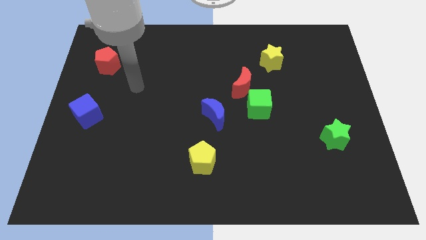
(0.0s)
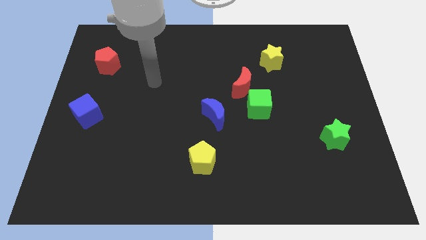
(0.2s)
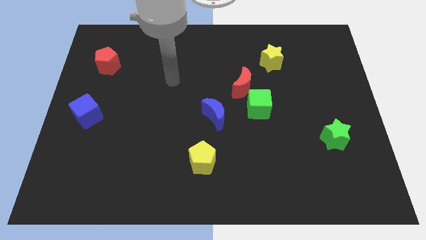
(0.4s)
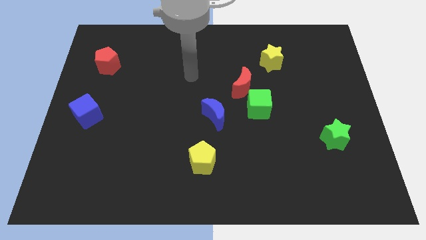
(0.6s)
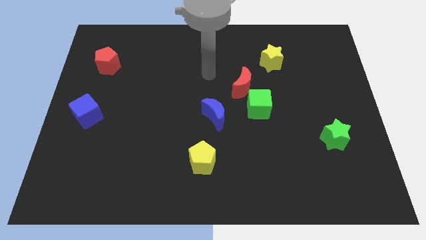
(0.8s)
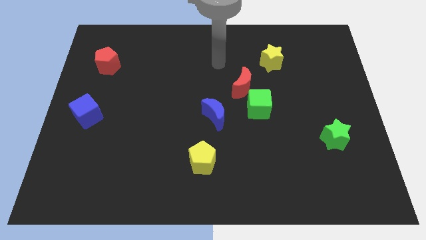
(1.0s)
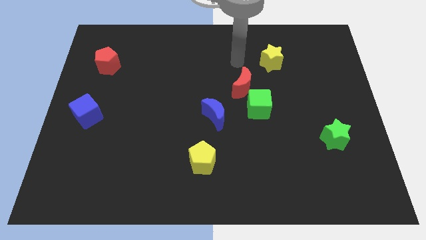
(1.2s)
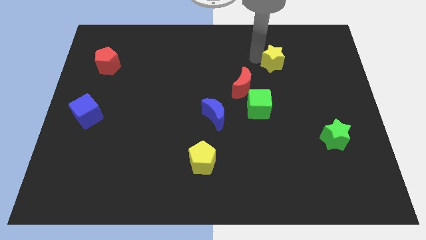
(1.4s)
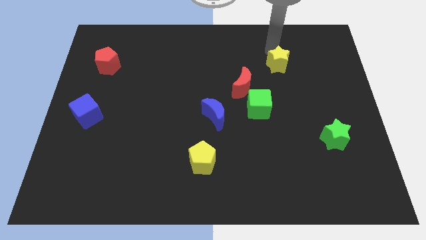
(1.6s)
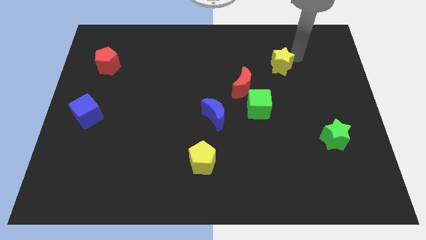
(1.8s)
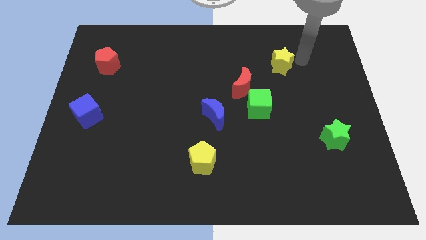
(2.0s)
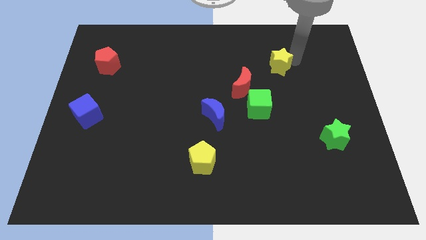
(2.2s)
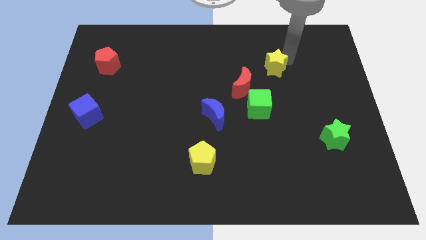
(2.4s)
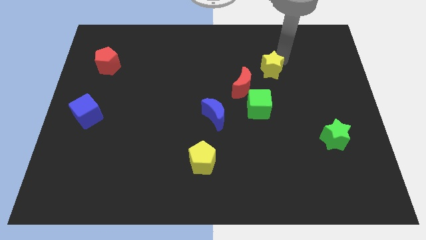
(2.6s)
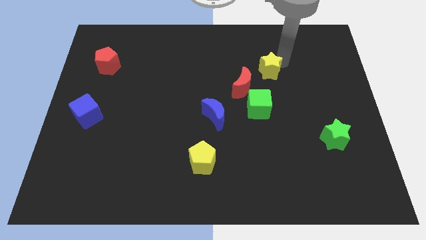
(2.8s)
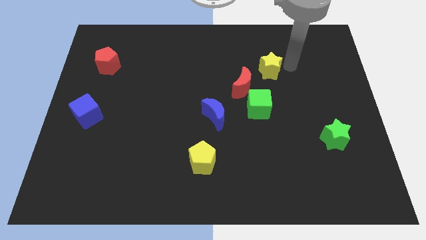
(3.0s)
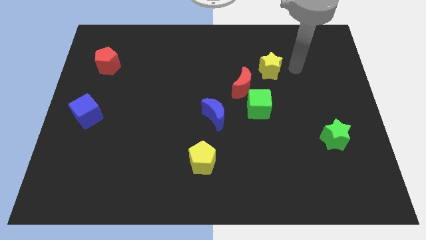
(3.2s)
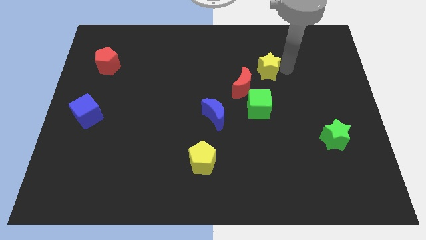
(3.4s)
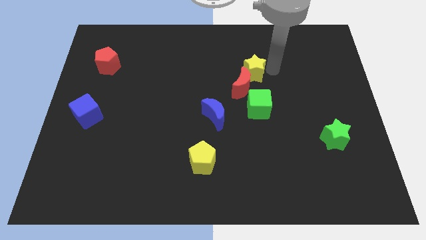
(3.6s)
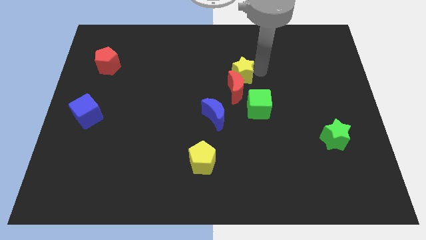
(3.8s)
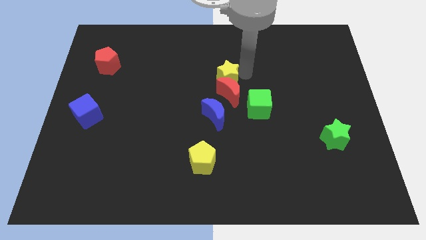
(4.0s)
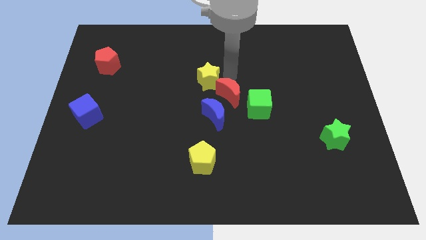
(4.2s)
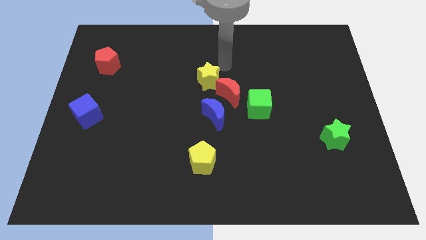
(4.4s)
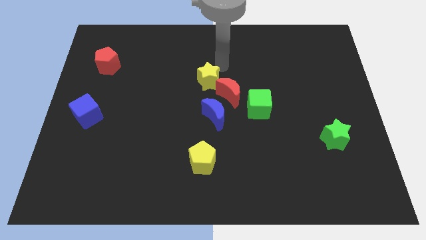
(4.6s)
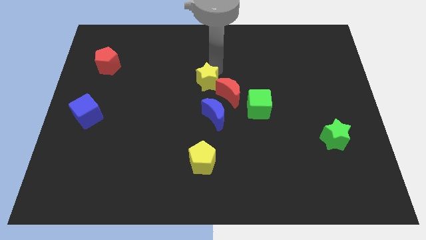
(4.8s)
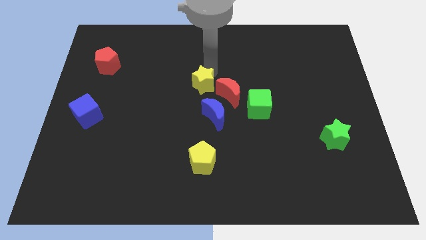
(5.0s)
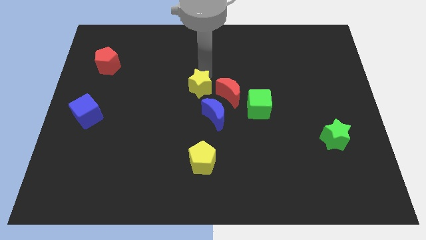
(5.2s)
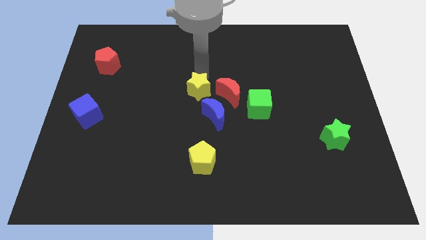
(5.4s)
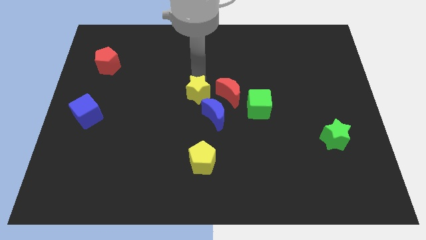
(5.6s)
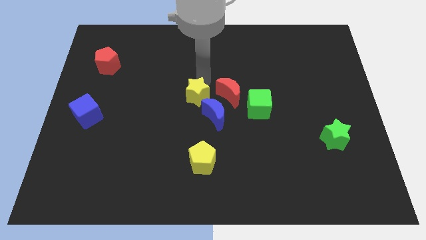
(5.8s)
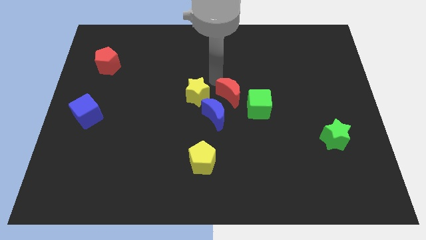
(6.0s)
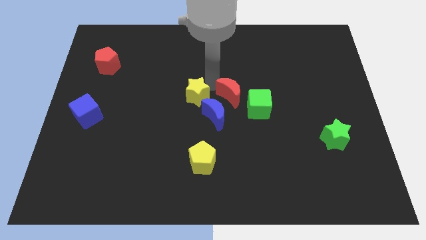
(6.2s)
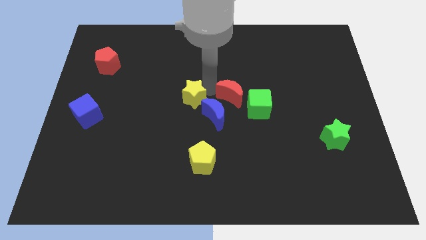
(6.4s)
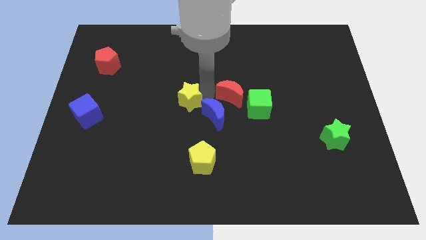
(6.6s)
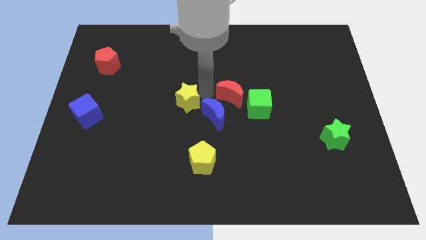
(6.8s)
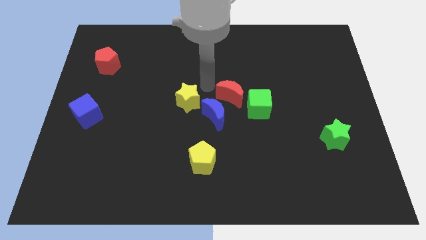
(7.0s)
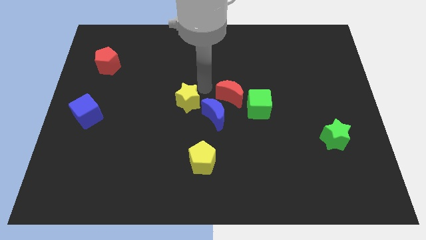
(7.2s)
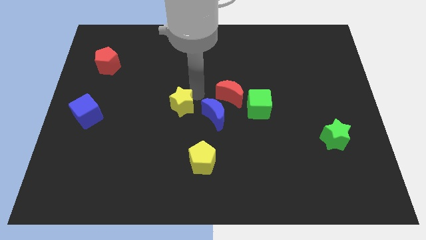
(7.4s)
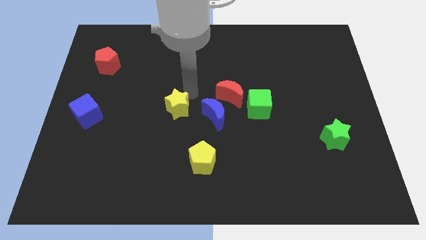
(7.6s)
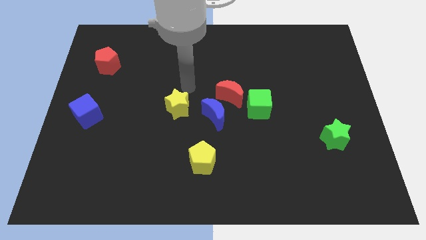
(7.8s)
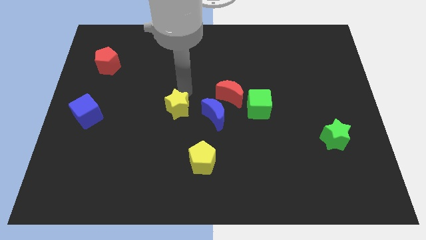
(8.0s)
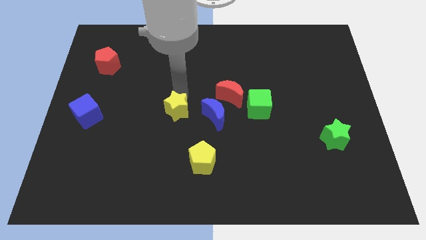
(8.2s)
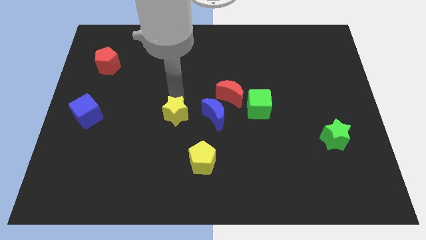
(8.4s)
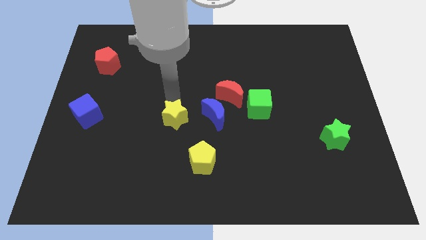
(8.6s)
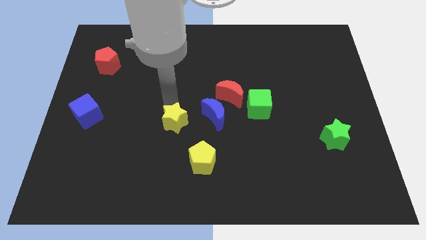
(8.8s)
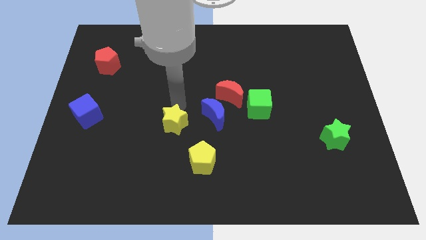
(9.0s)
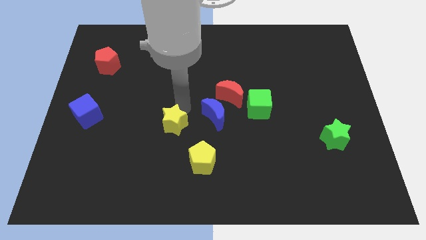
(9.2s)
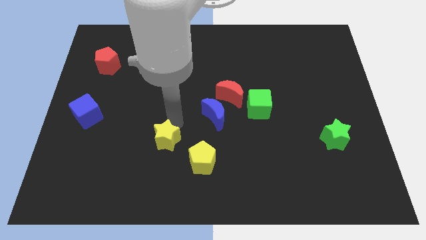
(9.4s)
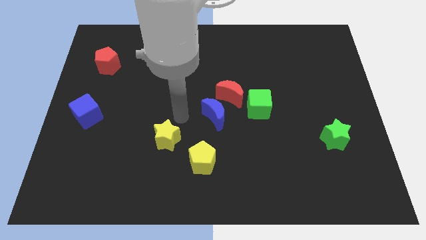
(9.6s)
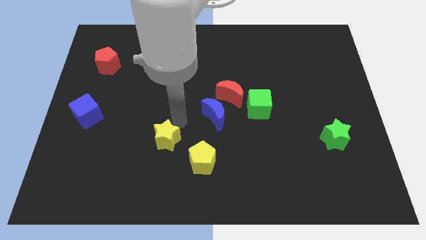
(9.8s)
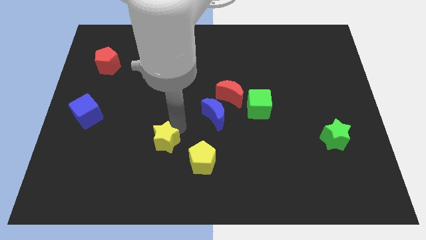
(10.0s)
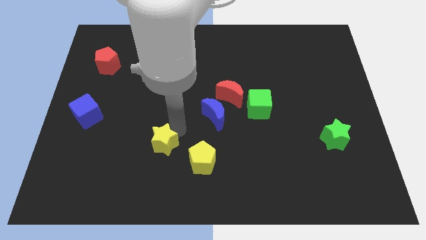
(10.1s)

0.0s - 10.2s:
push the yellow star to the left side of the yellow pentagon

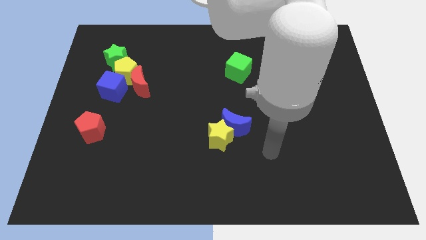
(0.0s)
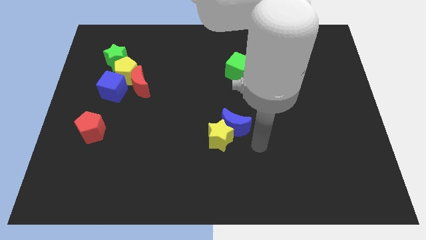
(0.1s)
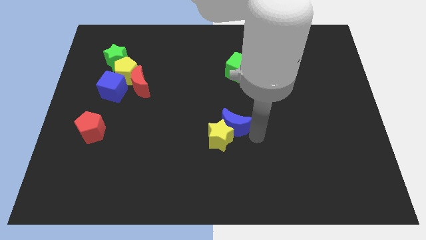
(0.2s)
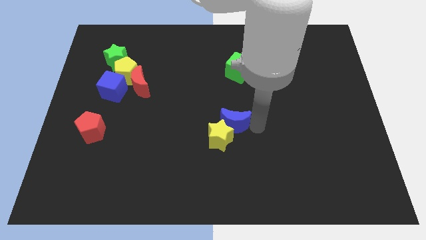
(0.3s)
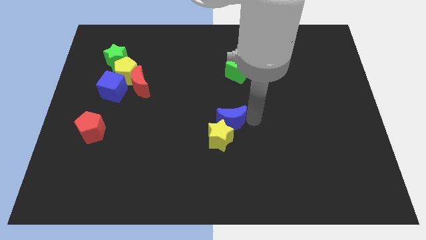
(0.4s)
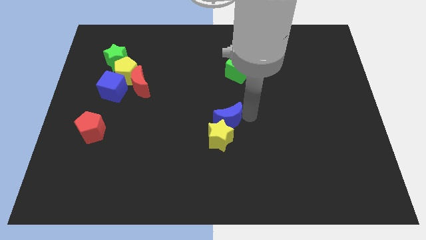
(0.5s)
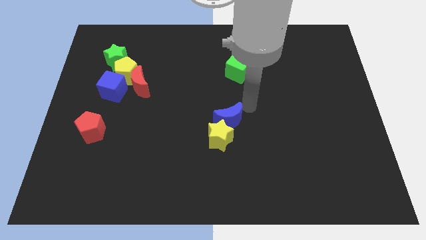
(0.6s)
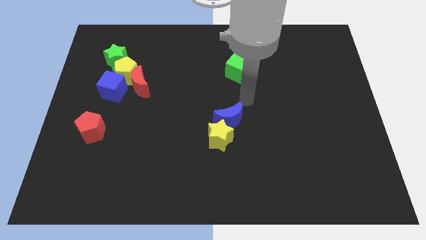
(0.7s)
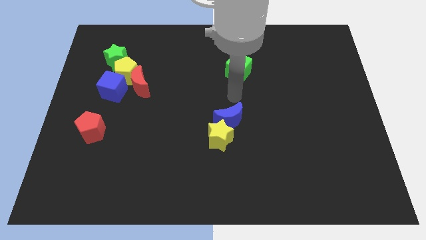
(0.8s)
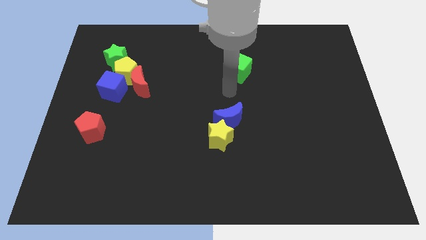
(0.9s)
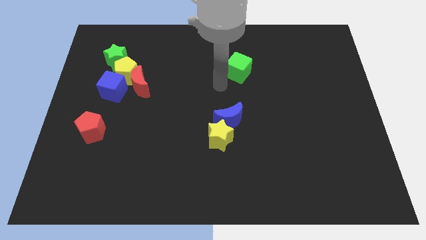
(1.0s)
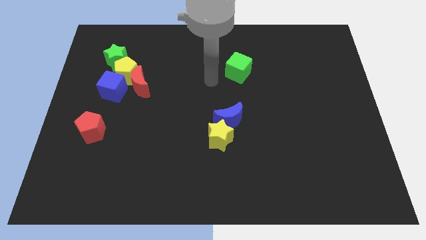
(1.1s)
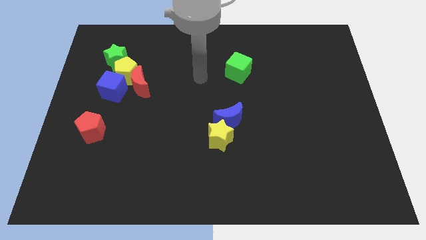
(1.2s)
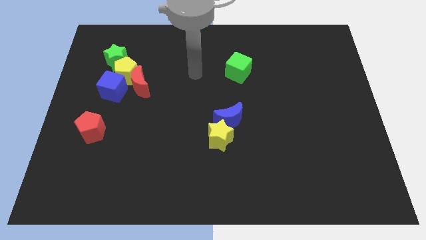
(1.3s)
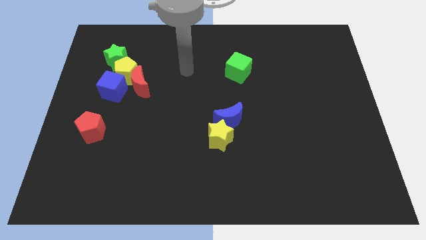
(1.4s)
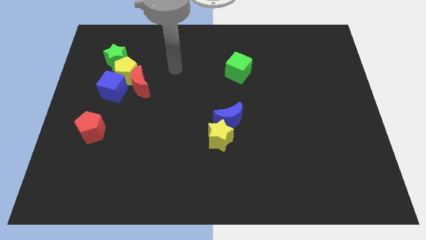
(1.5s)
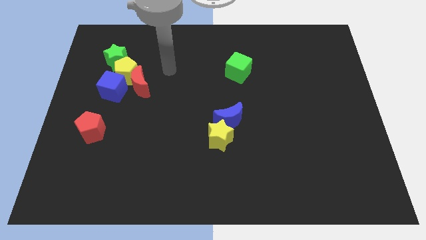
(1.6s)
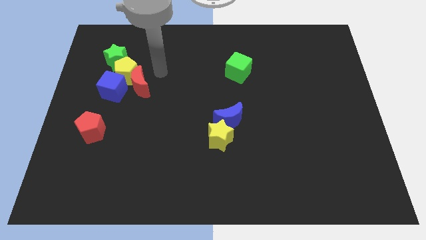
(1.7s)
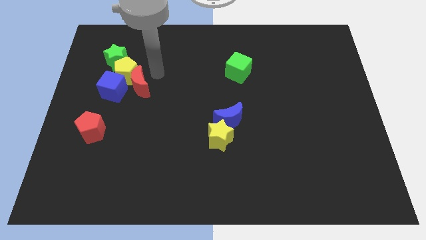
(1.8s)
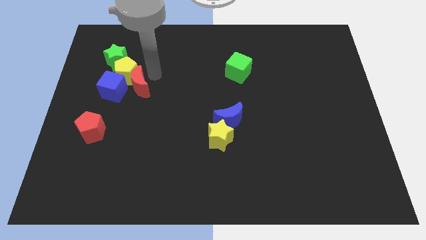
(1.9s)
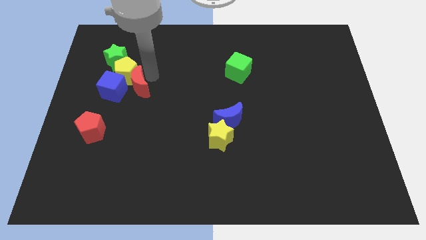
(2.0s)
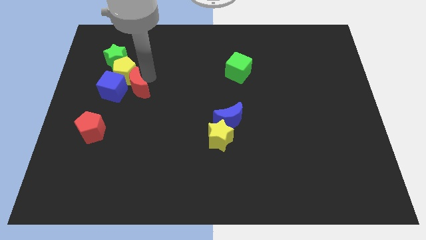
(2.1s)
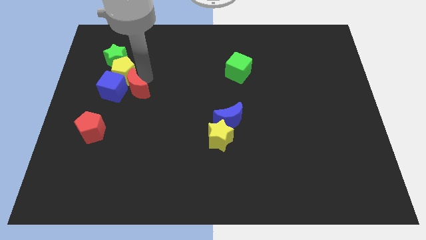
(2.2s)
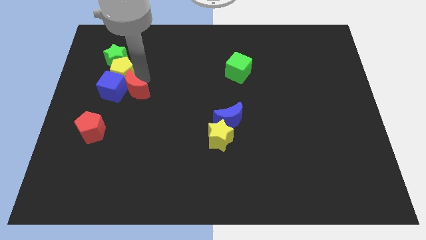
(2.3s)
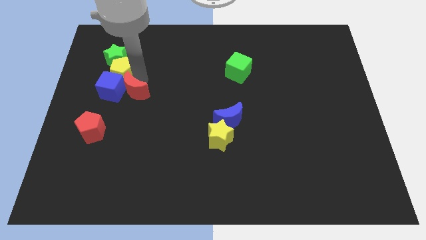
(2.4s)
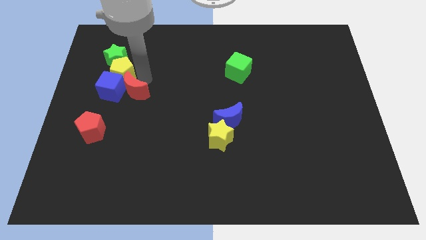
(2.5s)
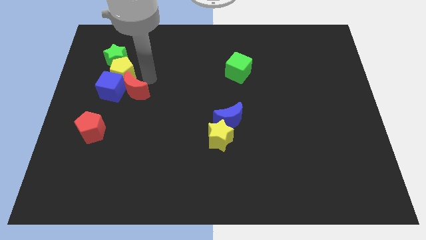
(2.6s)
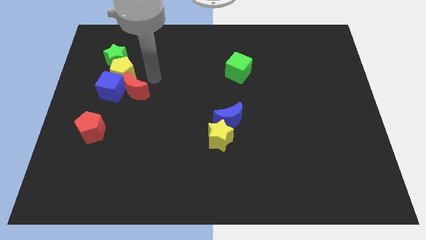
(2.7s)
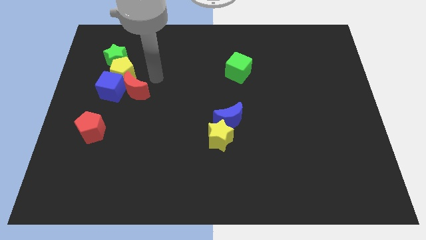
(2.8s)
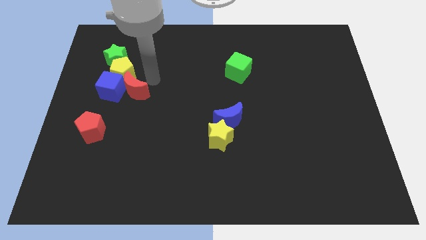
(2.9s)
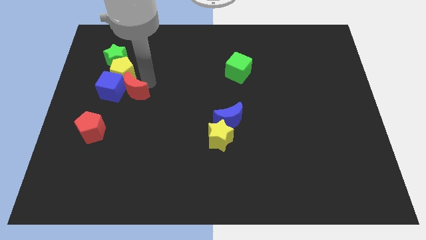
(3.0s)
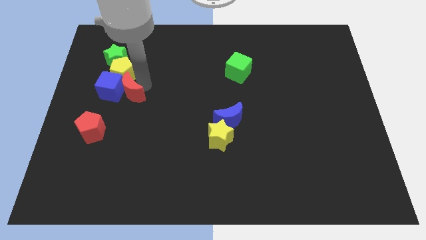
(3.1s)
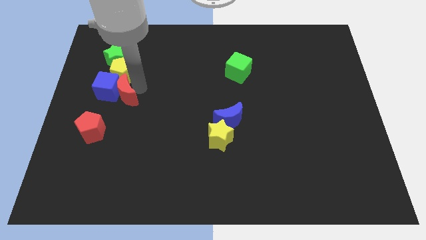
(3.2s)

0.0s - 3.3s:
move the red moon below the green star
